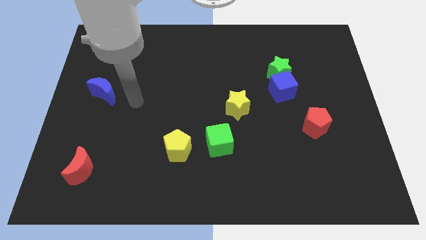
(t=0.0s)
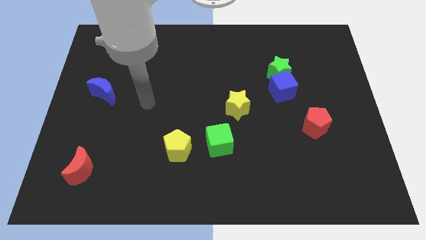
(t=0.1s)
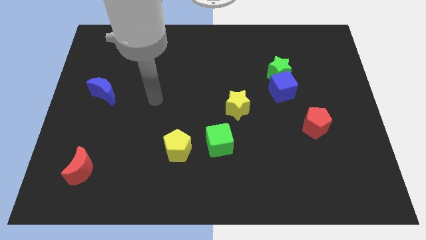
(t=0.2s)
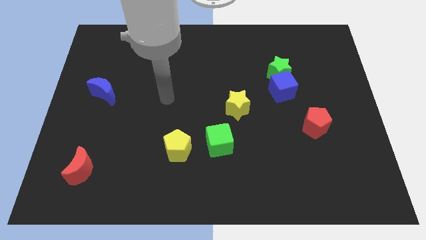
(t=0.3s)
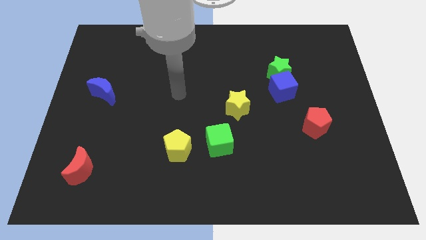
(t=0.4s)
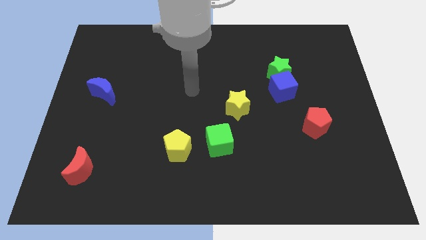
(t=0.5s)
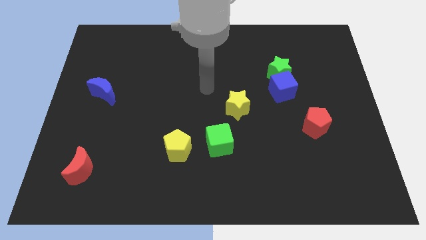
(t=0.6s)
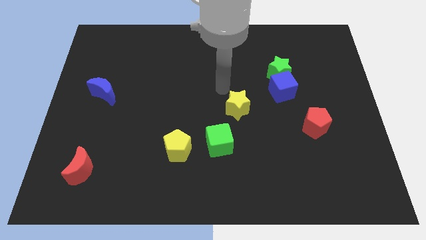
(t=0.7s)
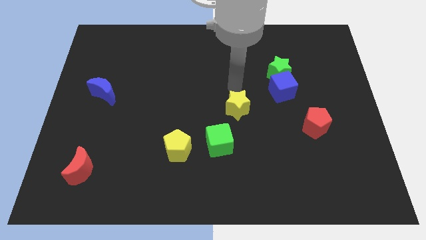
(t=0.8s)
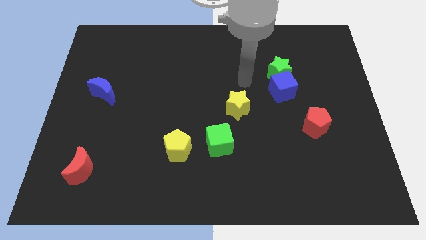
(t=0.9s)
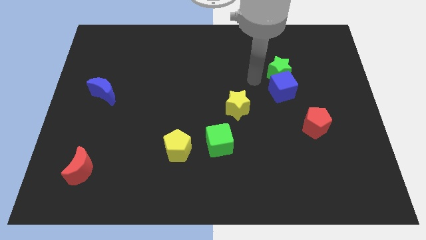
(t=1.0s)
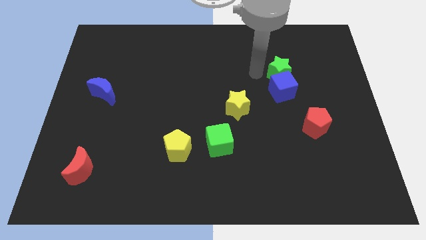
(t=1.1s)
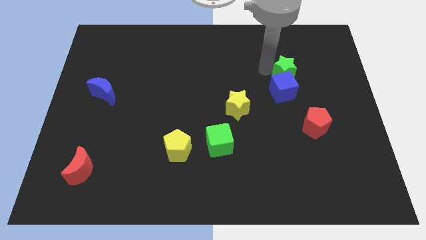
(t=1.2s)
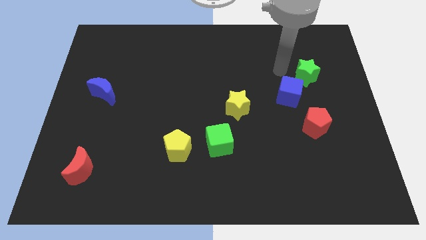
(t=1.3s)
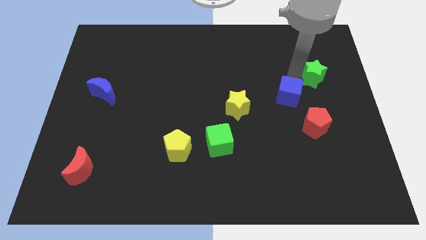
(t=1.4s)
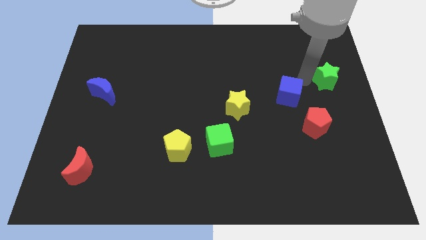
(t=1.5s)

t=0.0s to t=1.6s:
move the blue cube away from the green star

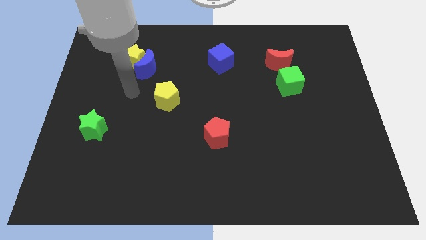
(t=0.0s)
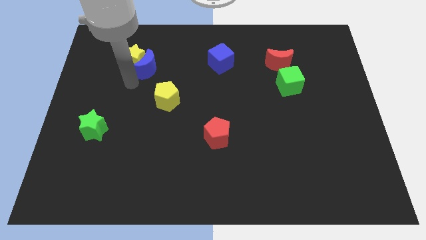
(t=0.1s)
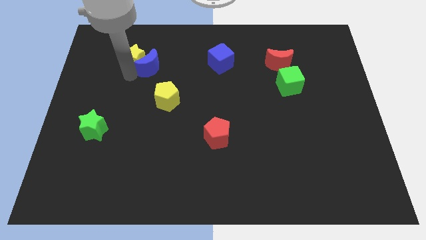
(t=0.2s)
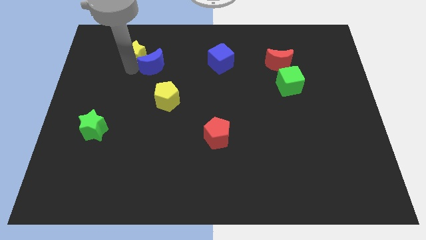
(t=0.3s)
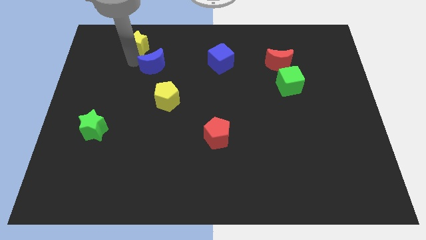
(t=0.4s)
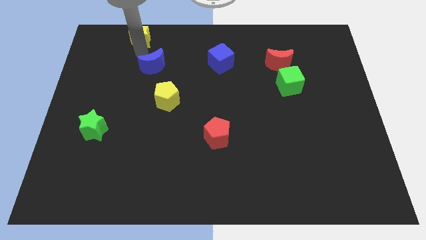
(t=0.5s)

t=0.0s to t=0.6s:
move the blue moon away from the yellow star

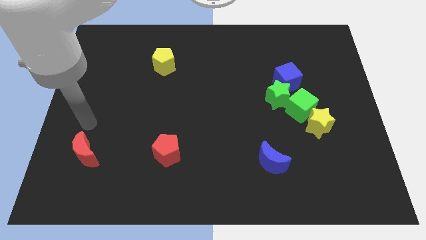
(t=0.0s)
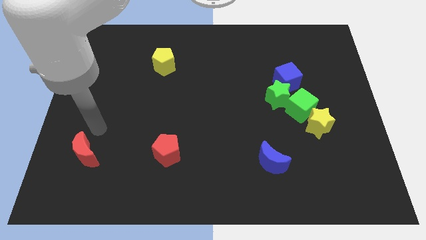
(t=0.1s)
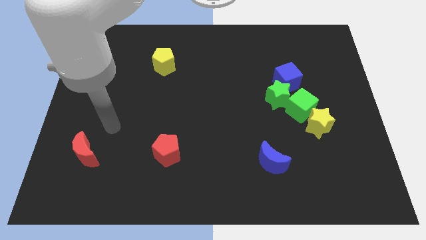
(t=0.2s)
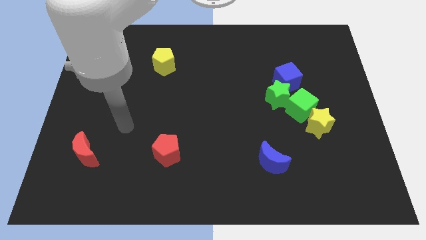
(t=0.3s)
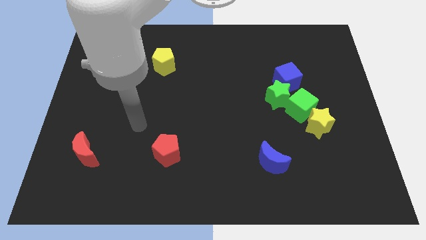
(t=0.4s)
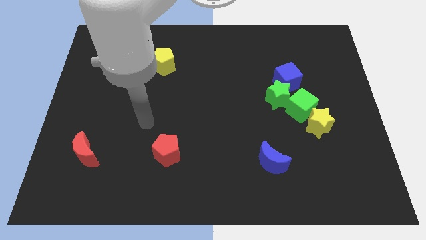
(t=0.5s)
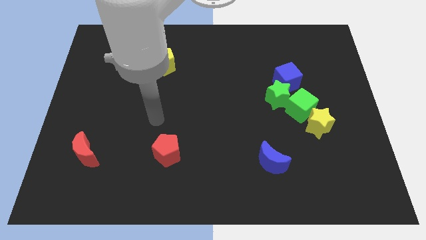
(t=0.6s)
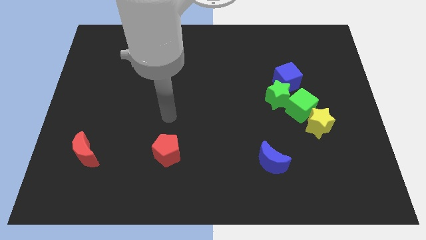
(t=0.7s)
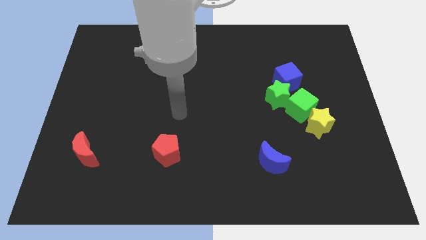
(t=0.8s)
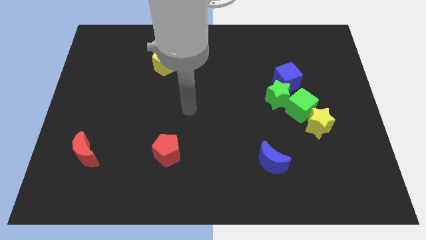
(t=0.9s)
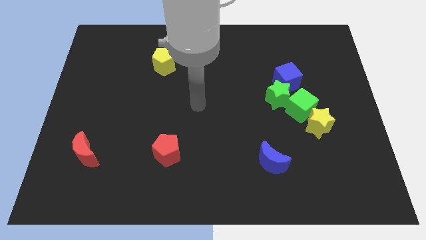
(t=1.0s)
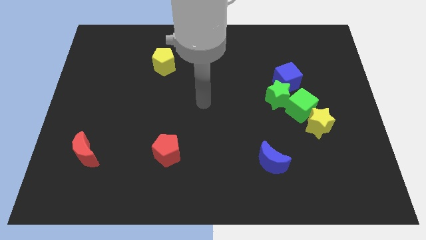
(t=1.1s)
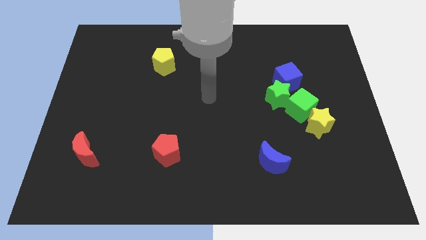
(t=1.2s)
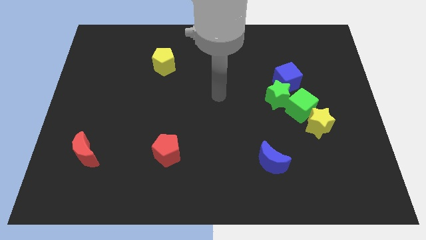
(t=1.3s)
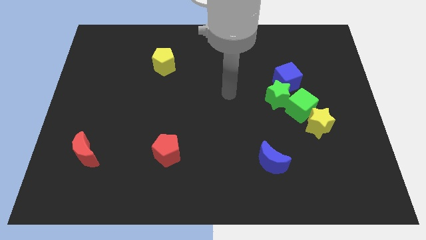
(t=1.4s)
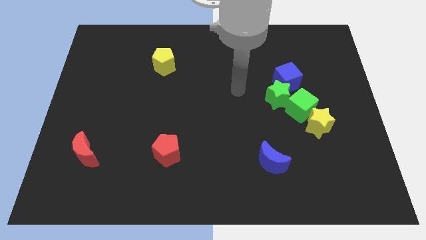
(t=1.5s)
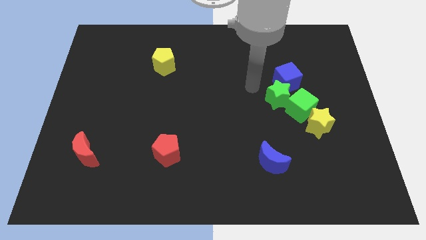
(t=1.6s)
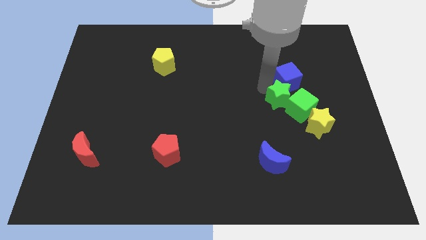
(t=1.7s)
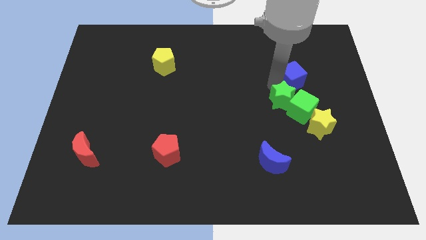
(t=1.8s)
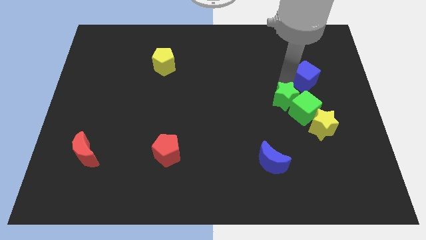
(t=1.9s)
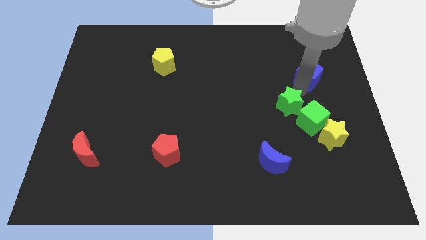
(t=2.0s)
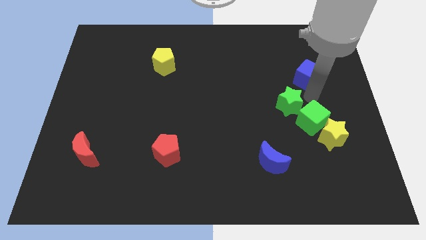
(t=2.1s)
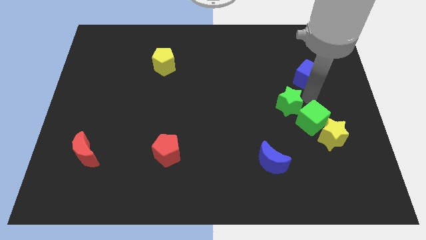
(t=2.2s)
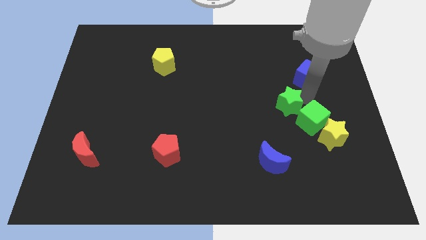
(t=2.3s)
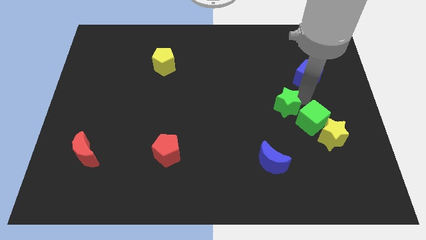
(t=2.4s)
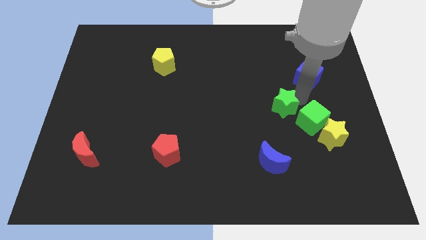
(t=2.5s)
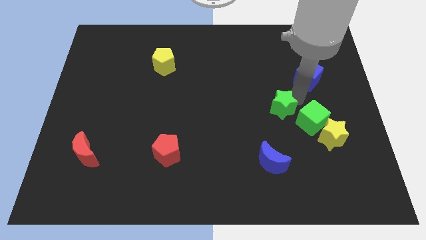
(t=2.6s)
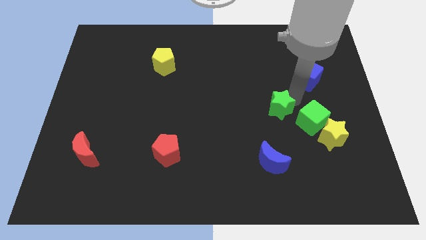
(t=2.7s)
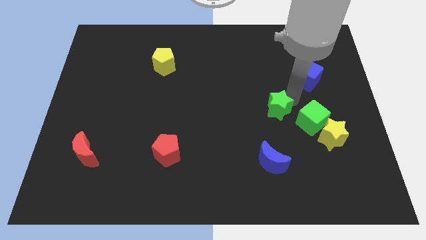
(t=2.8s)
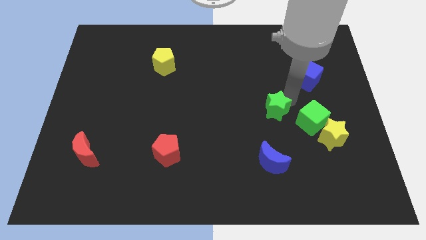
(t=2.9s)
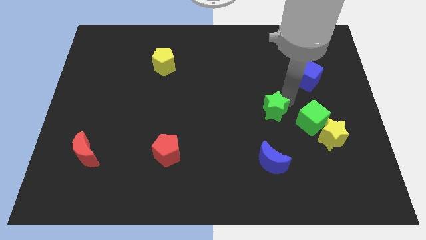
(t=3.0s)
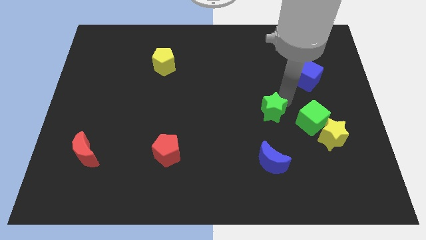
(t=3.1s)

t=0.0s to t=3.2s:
separate the green star from the green cube and blue cube

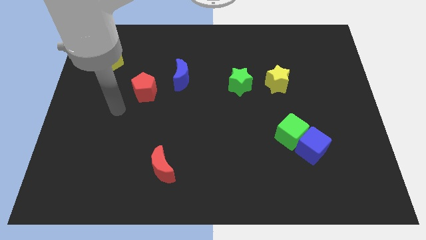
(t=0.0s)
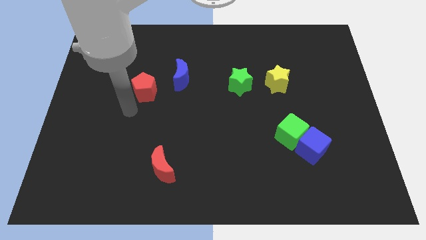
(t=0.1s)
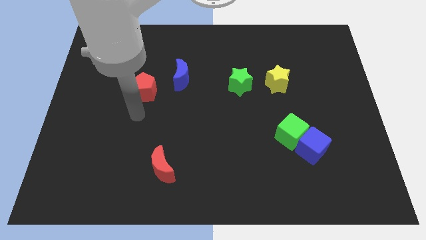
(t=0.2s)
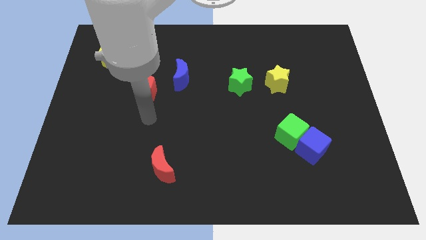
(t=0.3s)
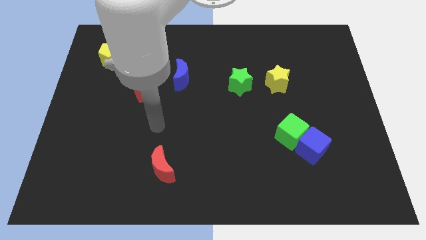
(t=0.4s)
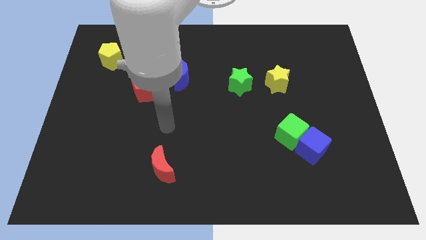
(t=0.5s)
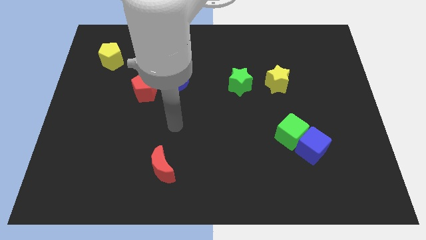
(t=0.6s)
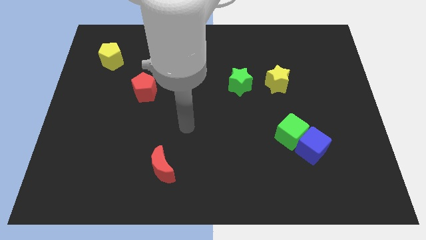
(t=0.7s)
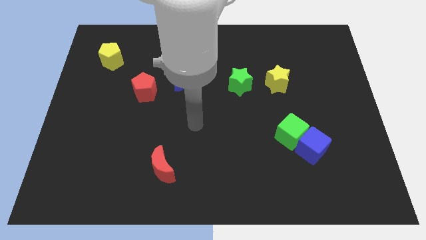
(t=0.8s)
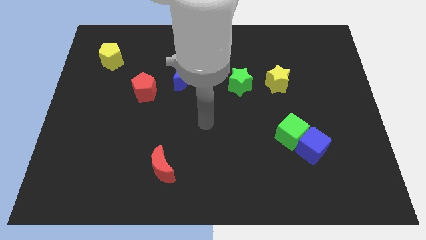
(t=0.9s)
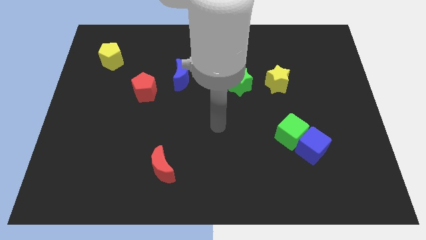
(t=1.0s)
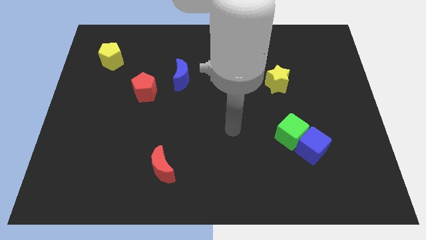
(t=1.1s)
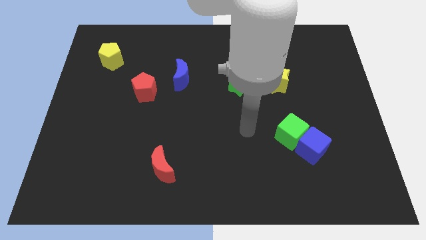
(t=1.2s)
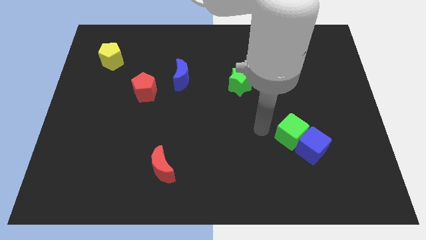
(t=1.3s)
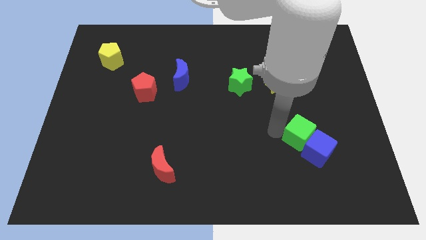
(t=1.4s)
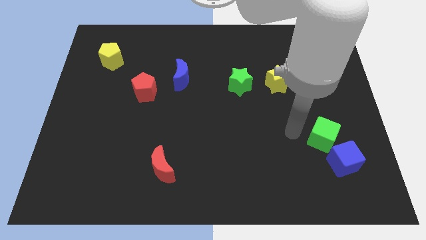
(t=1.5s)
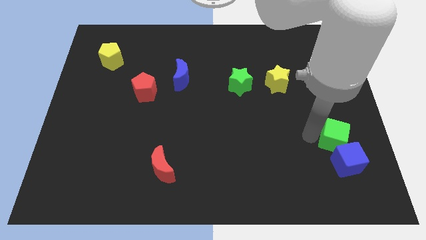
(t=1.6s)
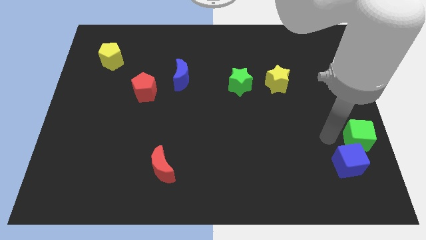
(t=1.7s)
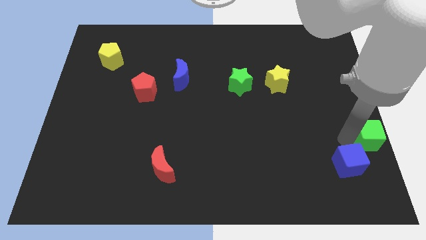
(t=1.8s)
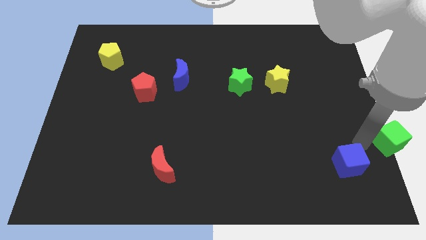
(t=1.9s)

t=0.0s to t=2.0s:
separate the blue cube from the green cube

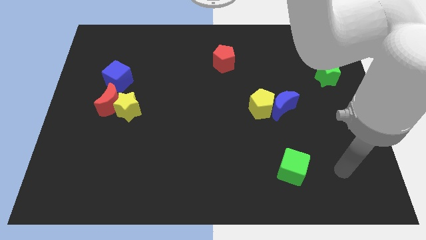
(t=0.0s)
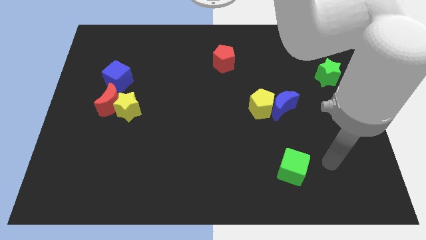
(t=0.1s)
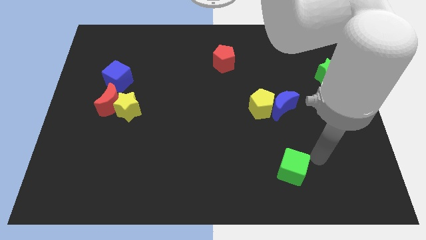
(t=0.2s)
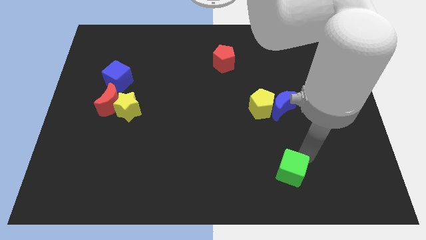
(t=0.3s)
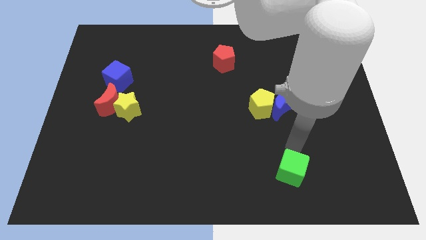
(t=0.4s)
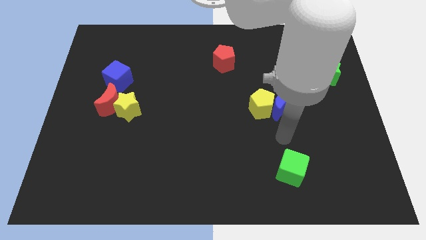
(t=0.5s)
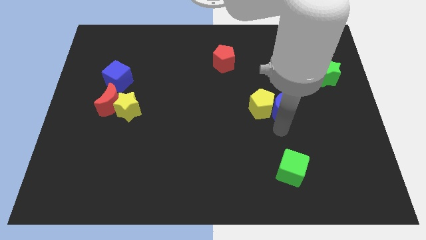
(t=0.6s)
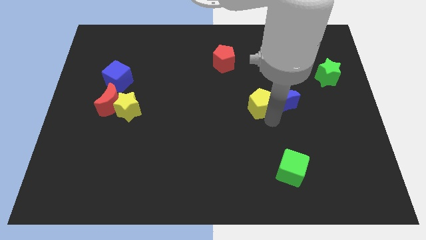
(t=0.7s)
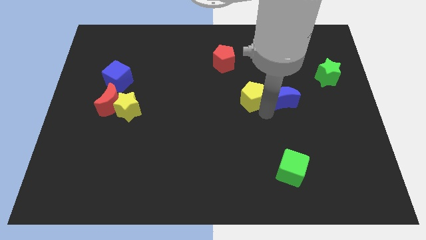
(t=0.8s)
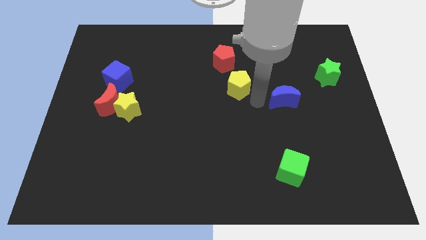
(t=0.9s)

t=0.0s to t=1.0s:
pull the blue moon apart from the yellow pentagon

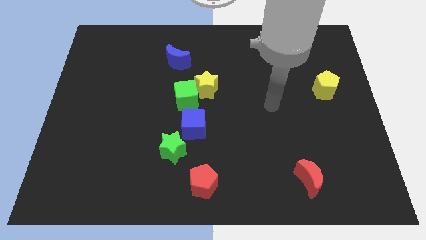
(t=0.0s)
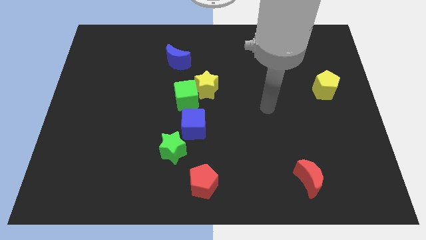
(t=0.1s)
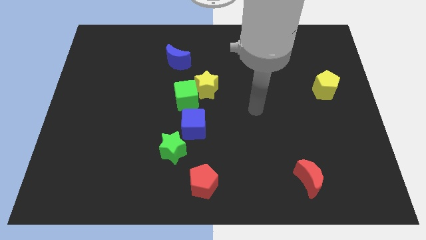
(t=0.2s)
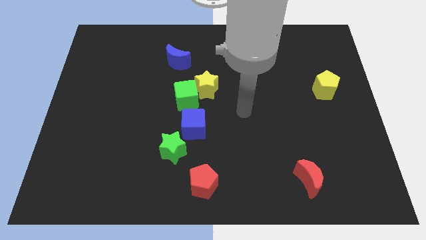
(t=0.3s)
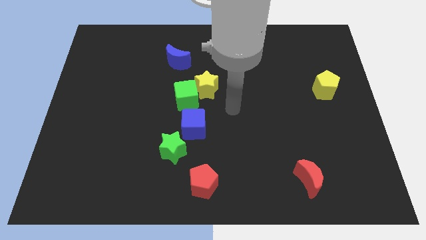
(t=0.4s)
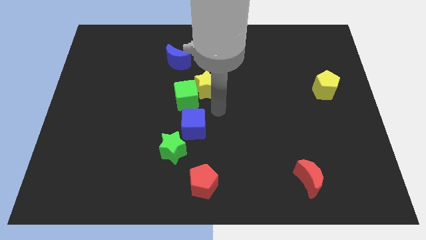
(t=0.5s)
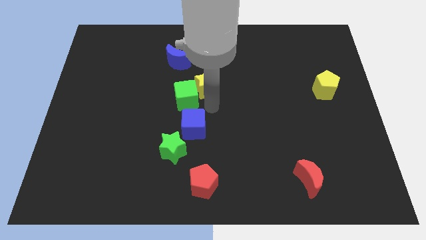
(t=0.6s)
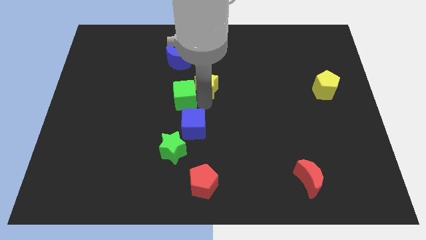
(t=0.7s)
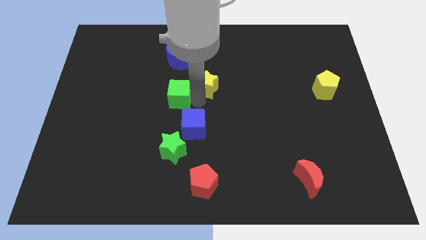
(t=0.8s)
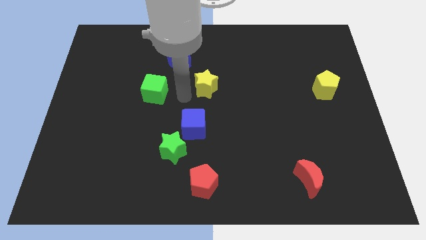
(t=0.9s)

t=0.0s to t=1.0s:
move the yellow star away from the green cube
